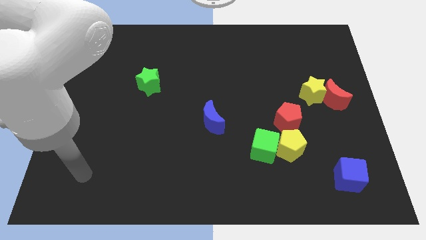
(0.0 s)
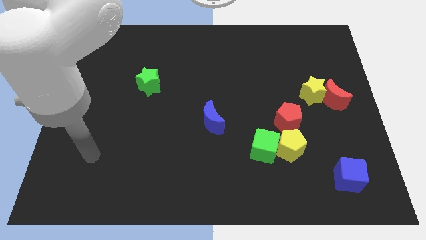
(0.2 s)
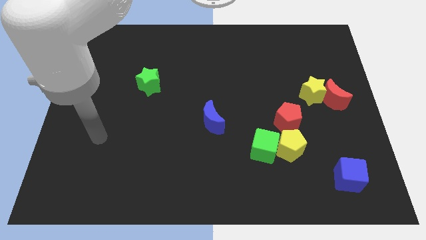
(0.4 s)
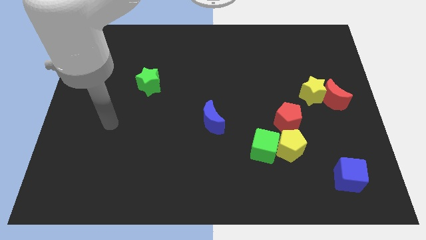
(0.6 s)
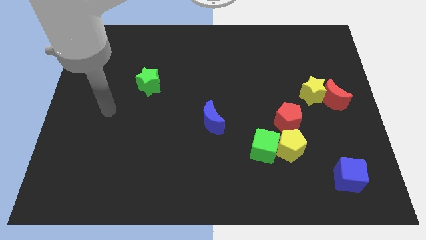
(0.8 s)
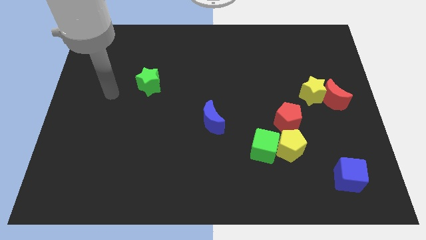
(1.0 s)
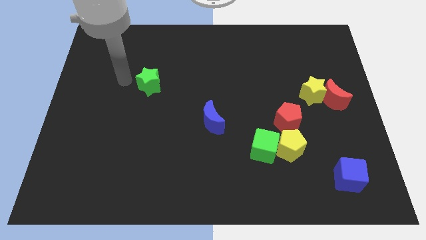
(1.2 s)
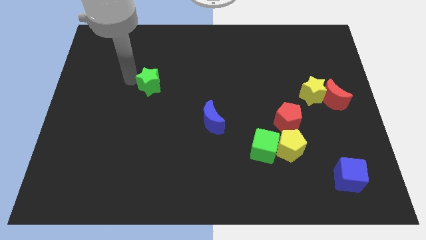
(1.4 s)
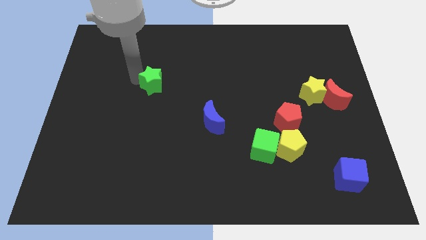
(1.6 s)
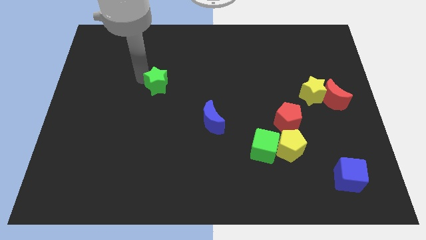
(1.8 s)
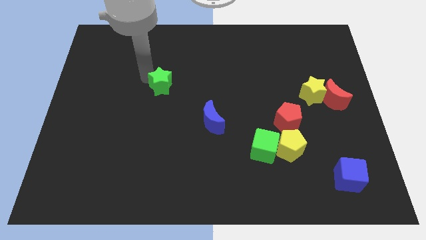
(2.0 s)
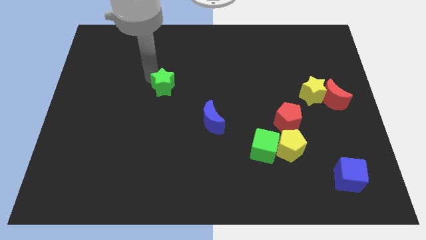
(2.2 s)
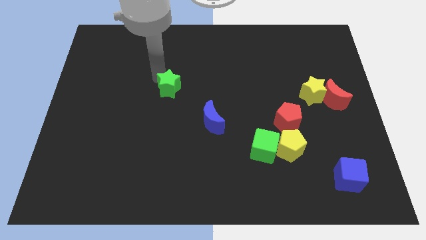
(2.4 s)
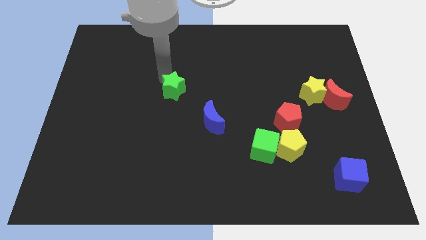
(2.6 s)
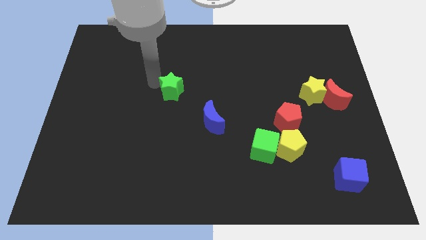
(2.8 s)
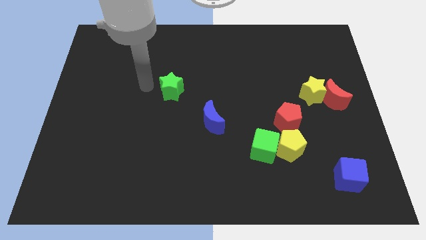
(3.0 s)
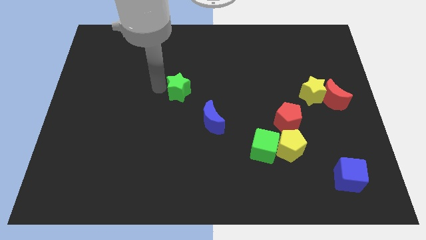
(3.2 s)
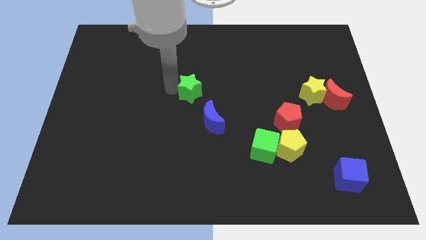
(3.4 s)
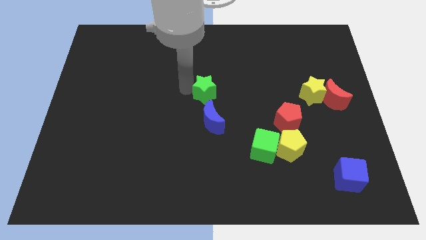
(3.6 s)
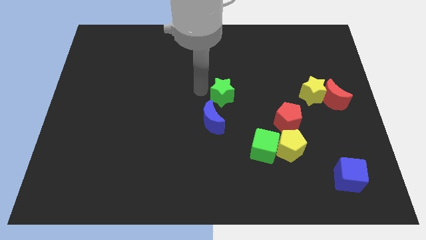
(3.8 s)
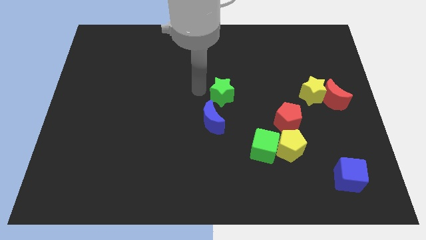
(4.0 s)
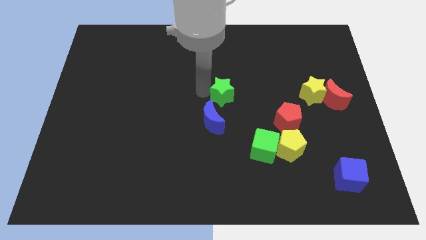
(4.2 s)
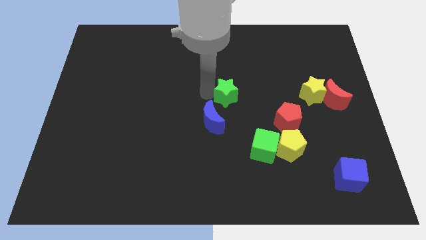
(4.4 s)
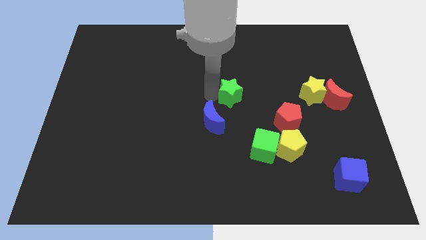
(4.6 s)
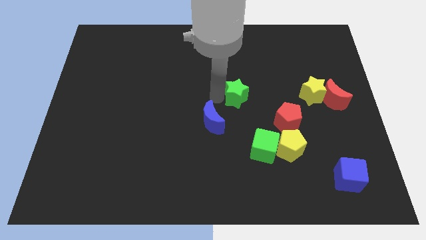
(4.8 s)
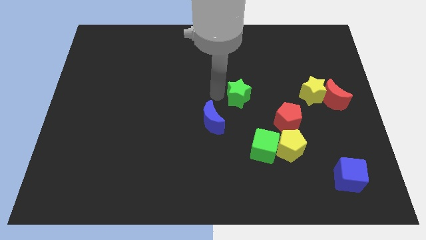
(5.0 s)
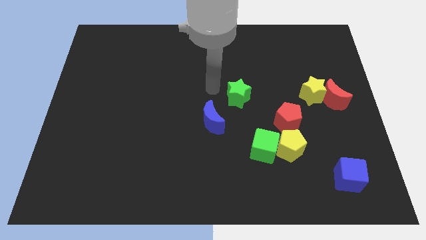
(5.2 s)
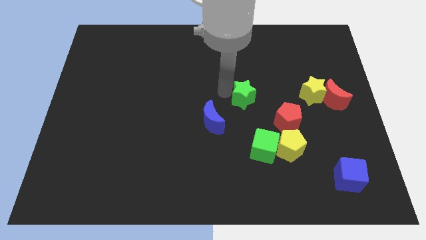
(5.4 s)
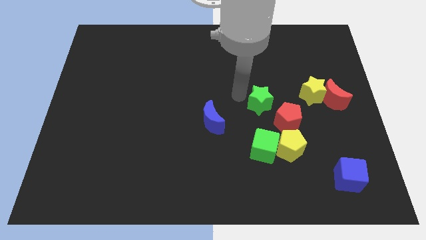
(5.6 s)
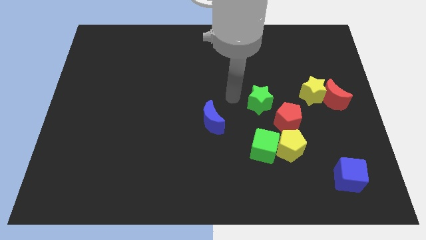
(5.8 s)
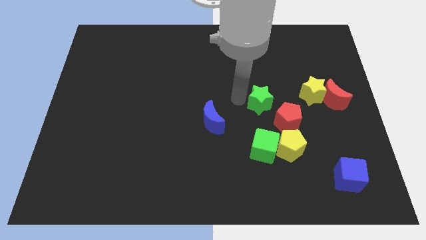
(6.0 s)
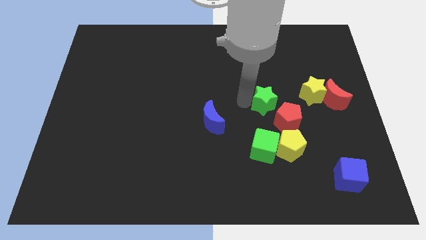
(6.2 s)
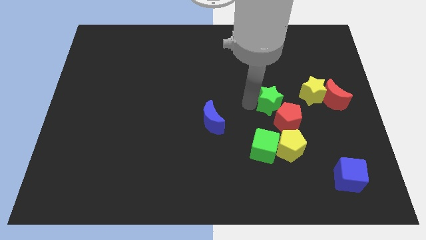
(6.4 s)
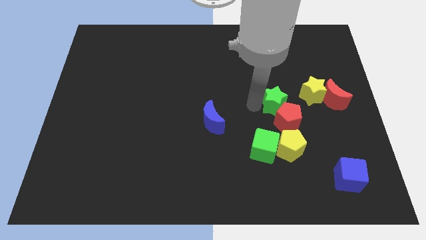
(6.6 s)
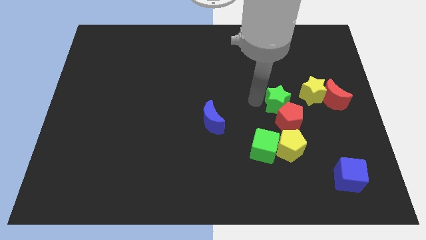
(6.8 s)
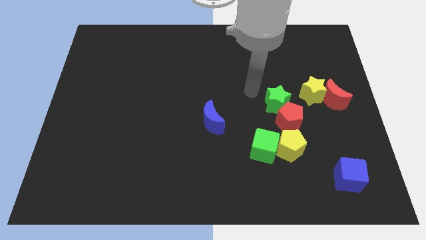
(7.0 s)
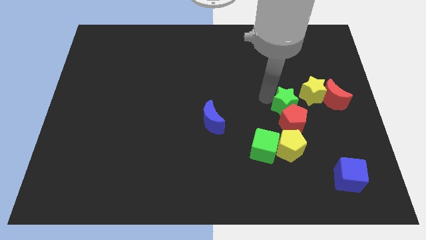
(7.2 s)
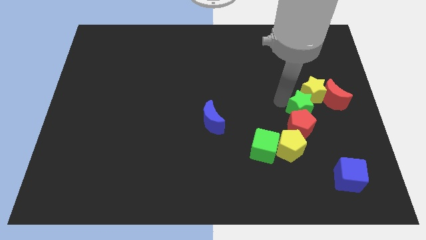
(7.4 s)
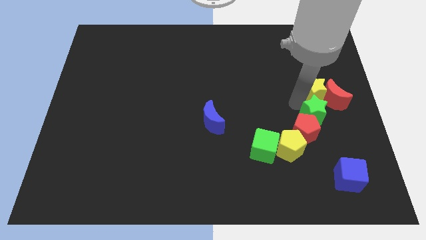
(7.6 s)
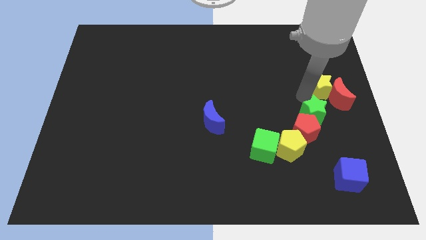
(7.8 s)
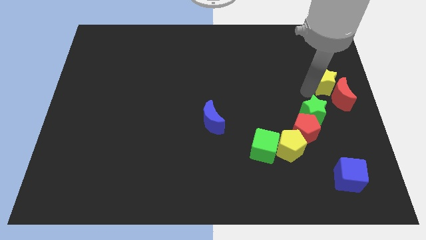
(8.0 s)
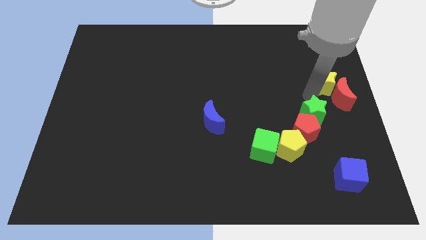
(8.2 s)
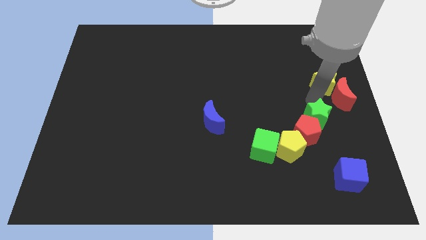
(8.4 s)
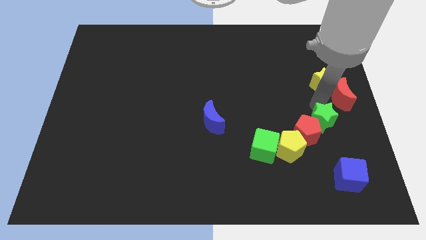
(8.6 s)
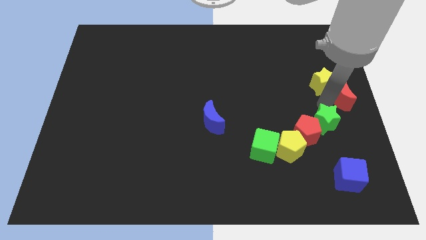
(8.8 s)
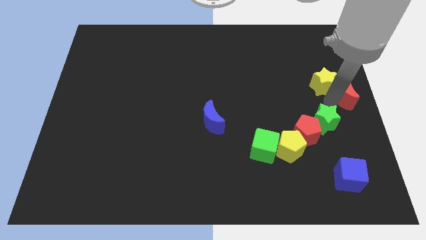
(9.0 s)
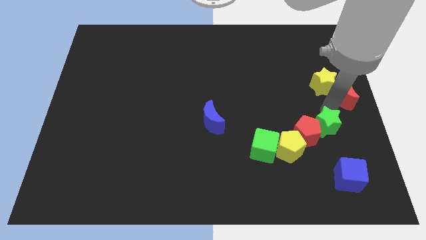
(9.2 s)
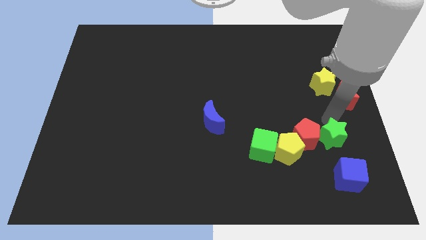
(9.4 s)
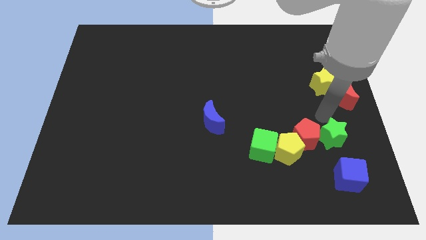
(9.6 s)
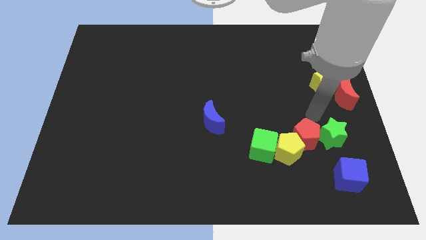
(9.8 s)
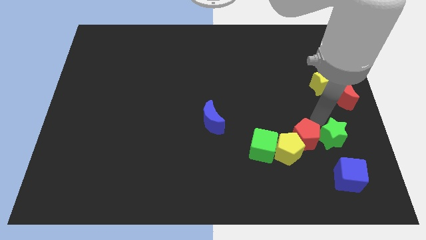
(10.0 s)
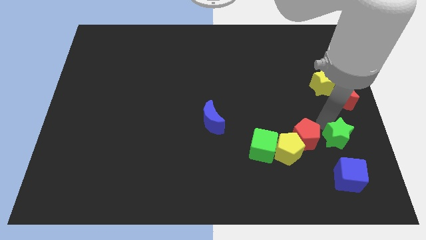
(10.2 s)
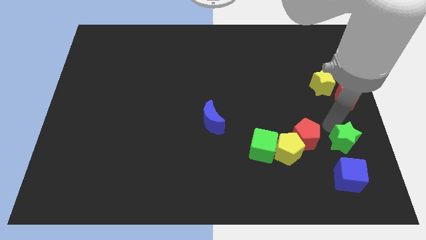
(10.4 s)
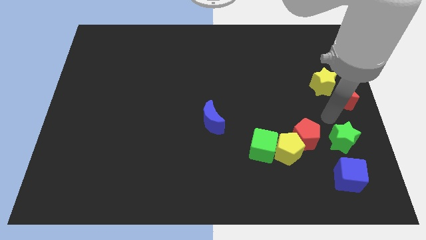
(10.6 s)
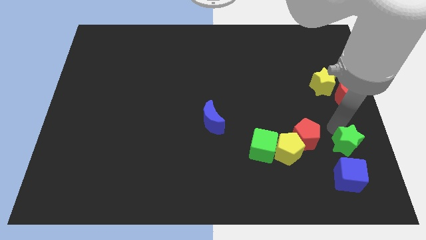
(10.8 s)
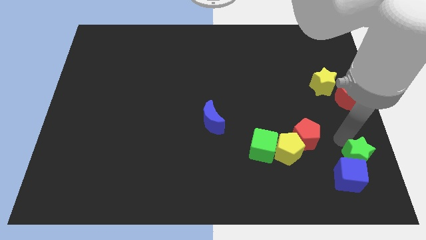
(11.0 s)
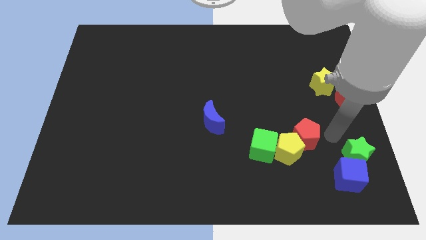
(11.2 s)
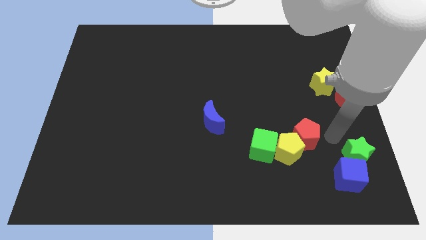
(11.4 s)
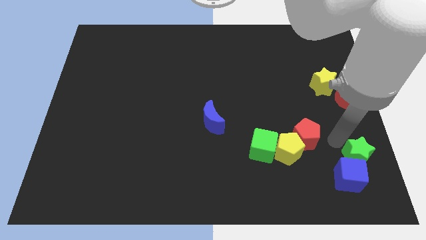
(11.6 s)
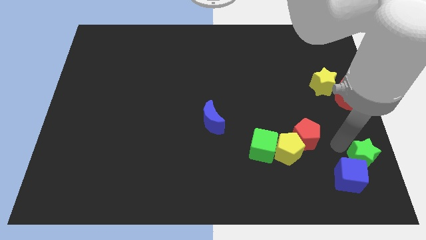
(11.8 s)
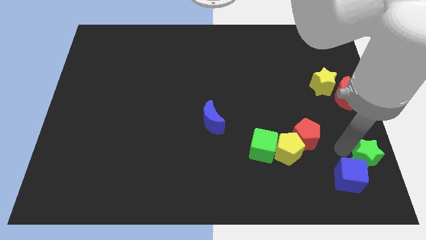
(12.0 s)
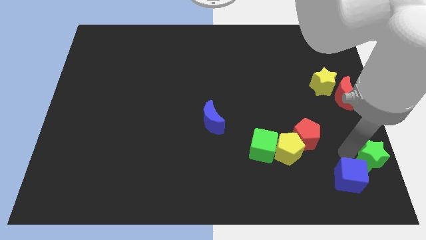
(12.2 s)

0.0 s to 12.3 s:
slide the green star to the bottom right of the board
